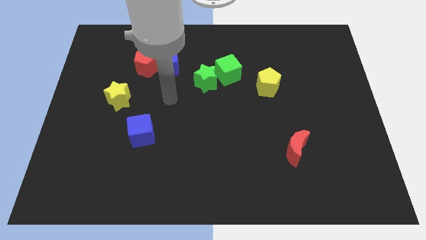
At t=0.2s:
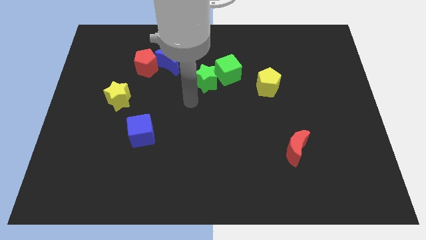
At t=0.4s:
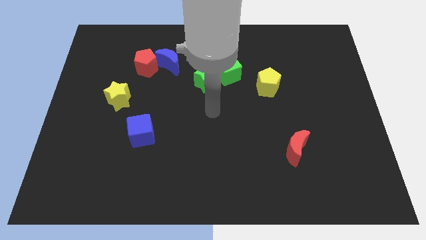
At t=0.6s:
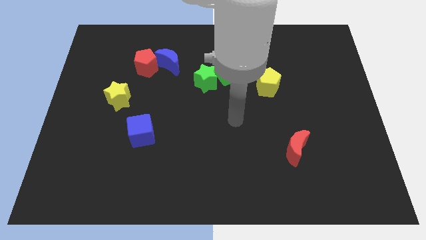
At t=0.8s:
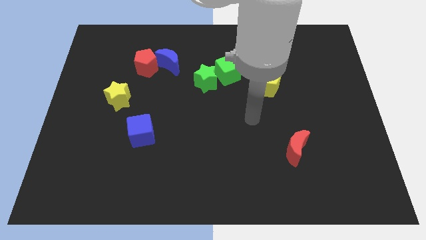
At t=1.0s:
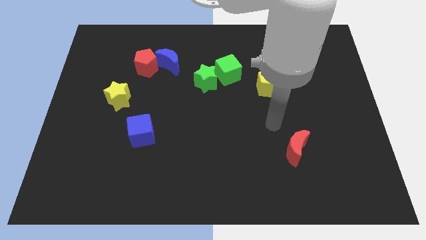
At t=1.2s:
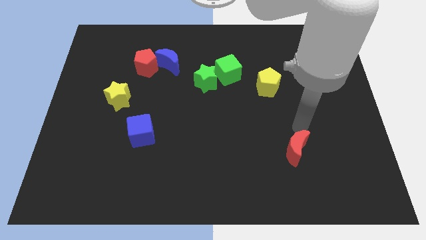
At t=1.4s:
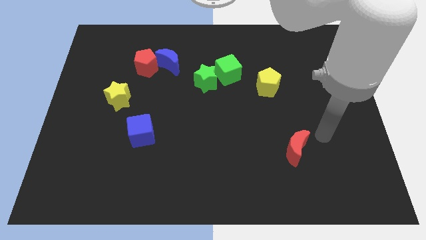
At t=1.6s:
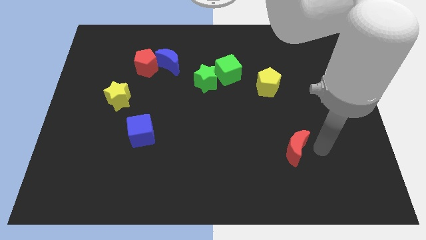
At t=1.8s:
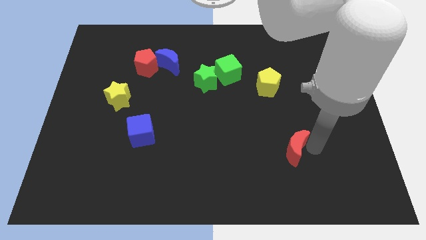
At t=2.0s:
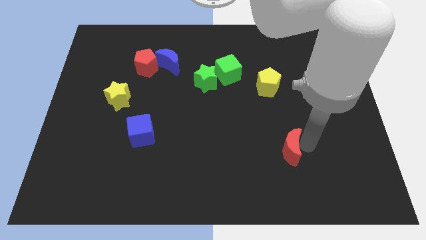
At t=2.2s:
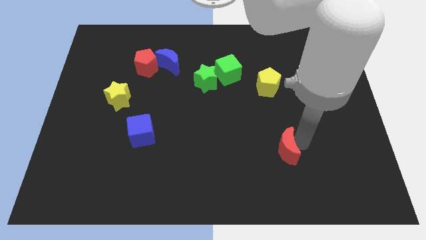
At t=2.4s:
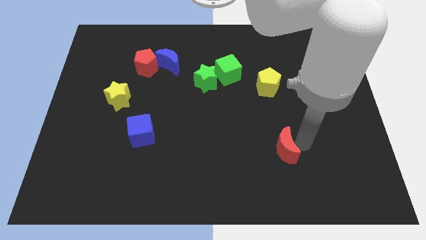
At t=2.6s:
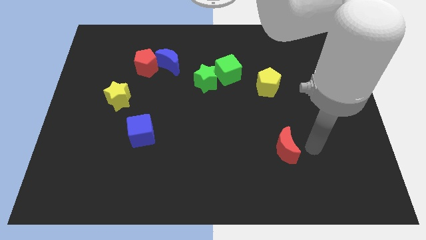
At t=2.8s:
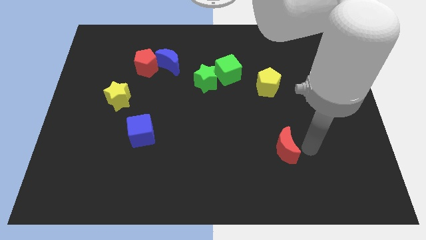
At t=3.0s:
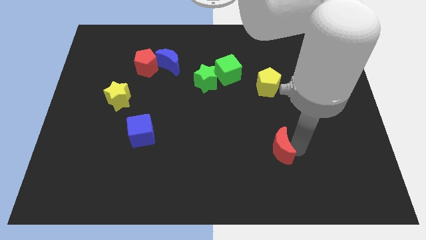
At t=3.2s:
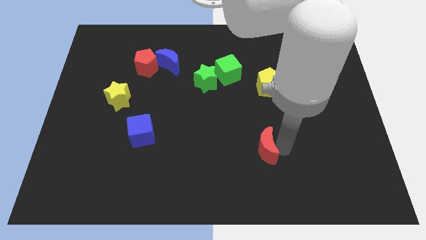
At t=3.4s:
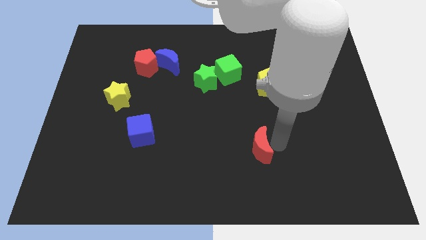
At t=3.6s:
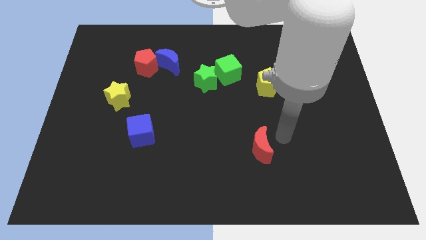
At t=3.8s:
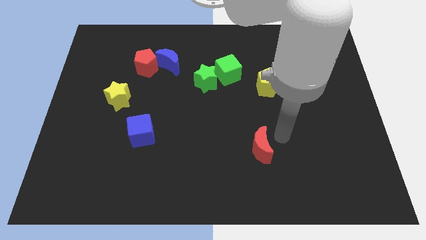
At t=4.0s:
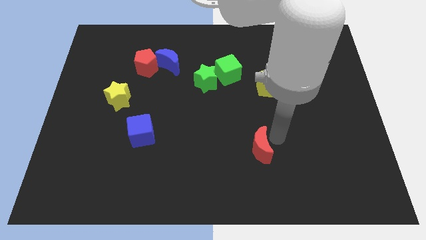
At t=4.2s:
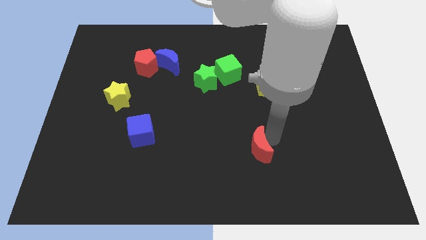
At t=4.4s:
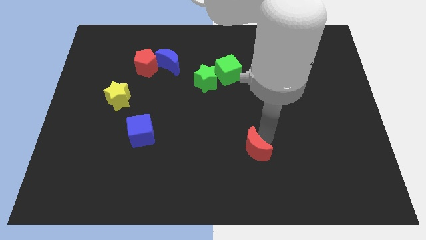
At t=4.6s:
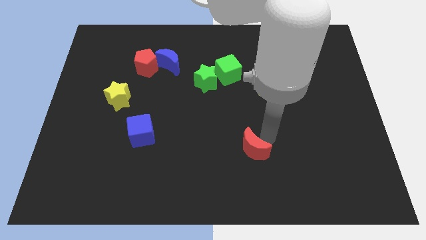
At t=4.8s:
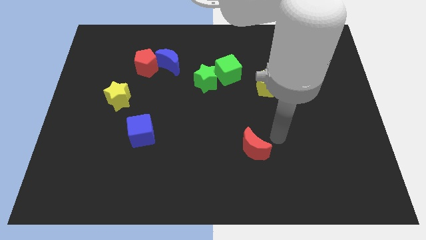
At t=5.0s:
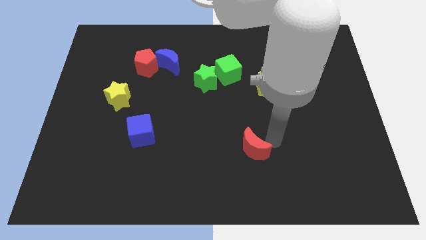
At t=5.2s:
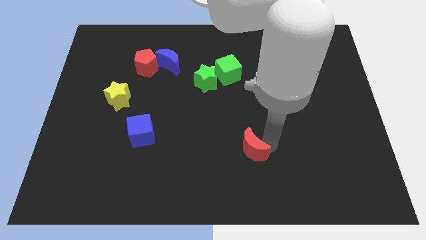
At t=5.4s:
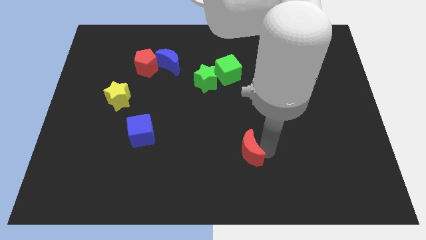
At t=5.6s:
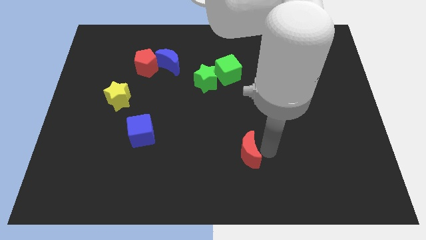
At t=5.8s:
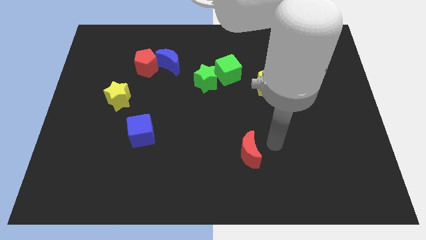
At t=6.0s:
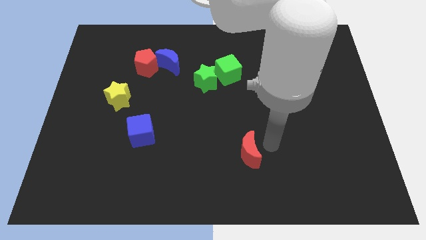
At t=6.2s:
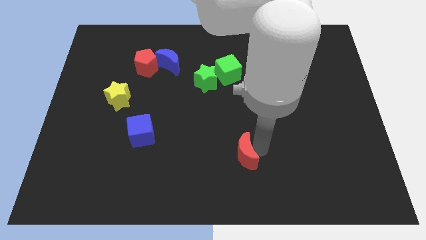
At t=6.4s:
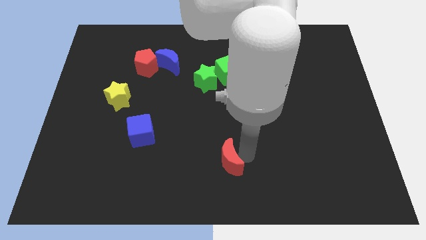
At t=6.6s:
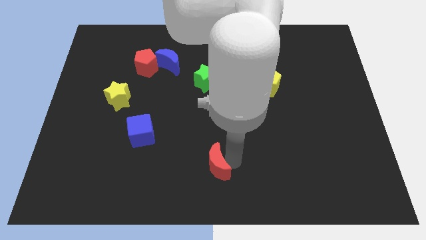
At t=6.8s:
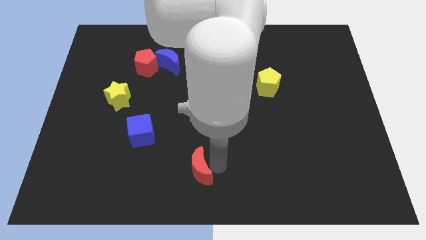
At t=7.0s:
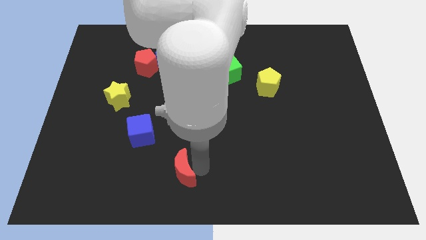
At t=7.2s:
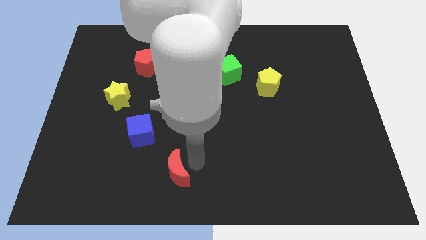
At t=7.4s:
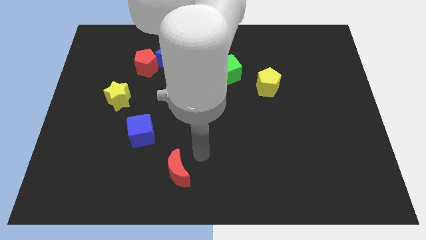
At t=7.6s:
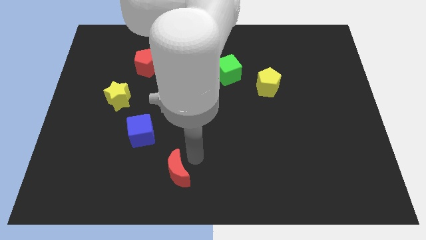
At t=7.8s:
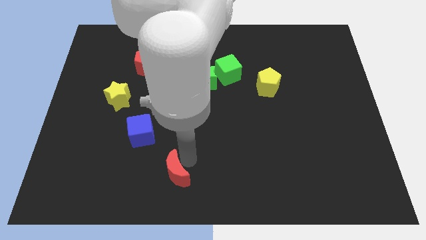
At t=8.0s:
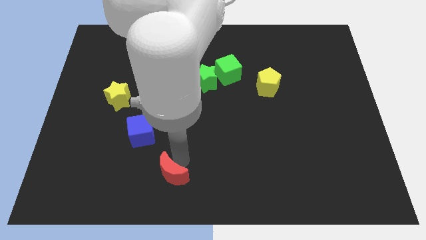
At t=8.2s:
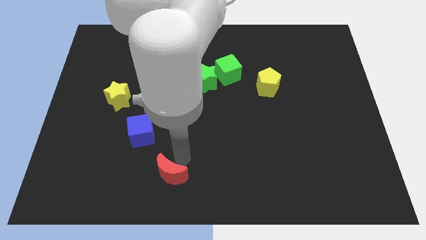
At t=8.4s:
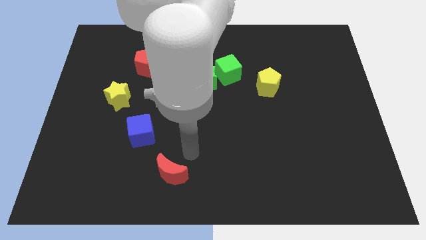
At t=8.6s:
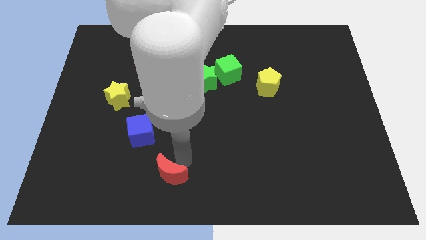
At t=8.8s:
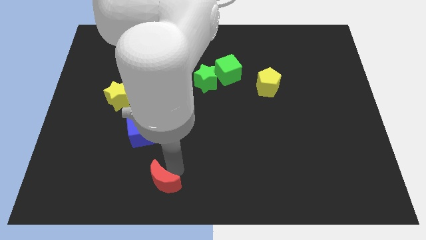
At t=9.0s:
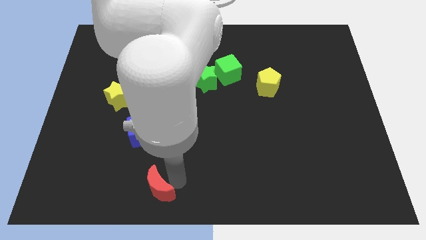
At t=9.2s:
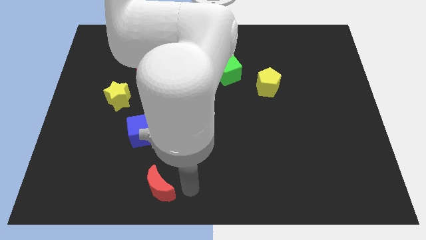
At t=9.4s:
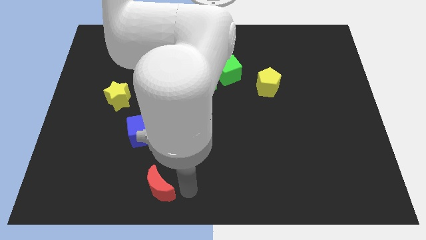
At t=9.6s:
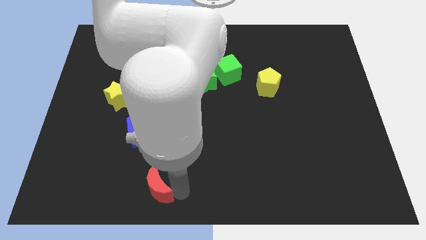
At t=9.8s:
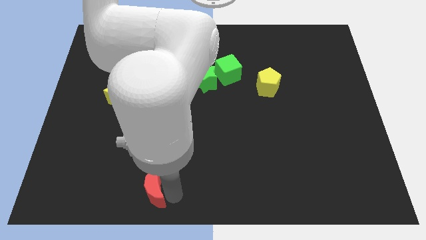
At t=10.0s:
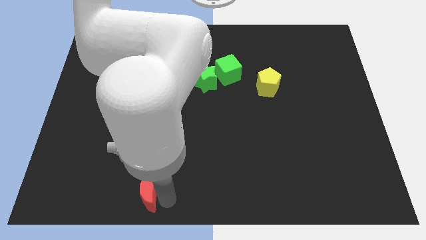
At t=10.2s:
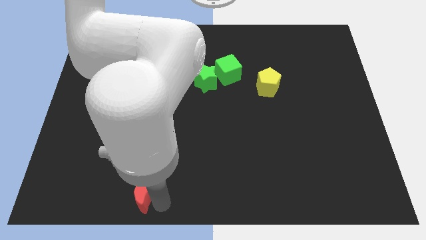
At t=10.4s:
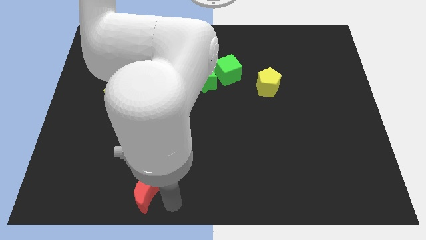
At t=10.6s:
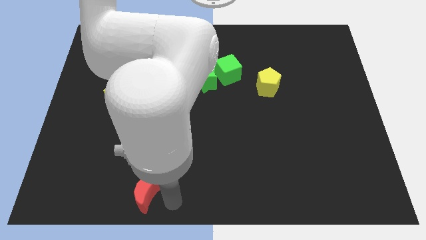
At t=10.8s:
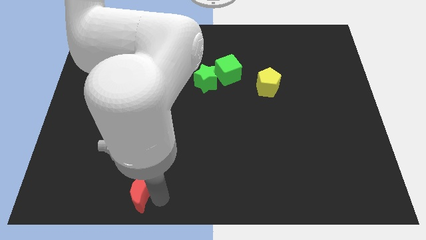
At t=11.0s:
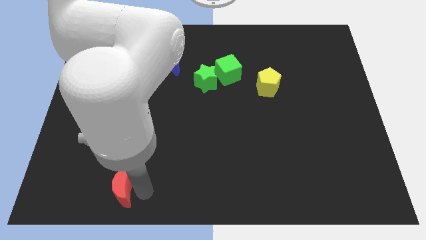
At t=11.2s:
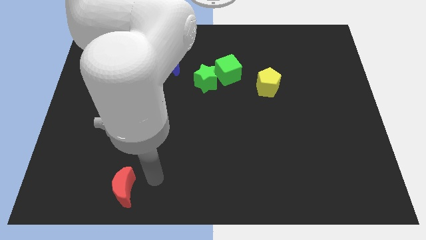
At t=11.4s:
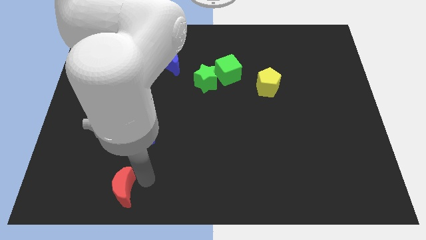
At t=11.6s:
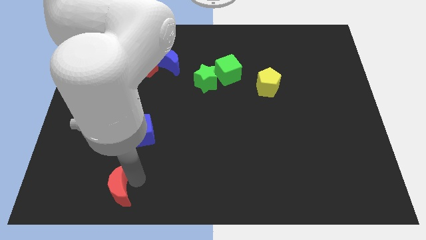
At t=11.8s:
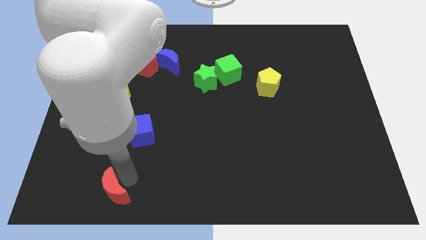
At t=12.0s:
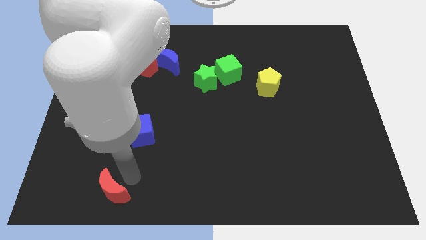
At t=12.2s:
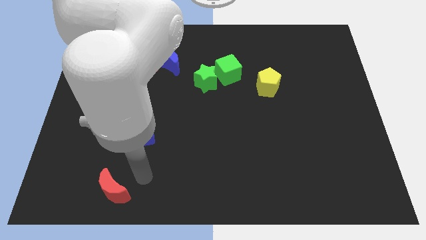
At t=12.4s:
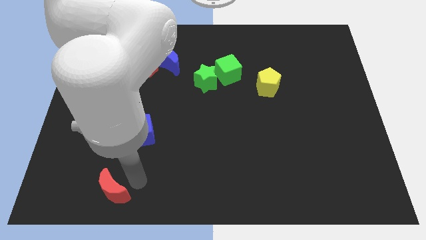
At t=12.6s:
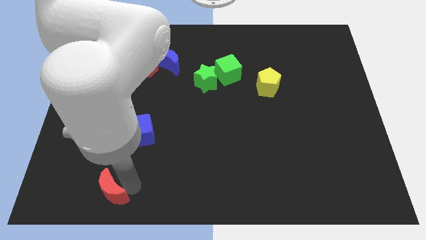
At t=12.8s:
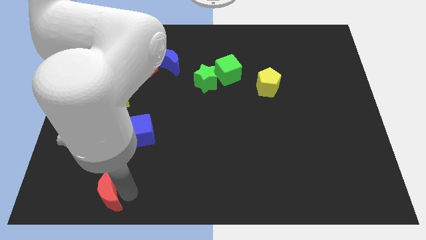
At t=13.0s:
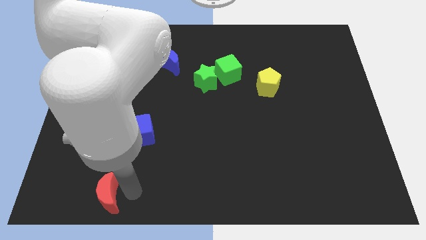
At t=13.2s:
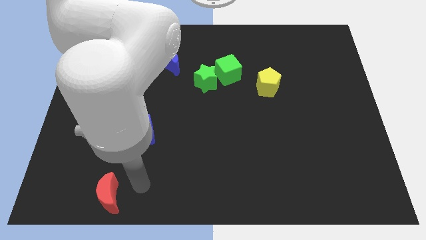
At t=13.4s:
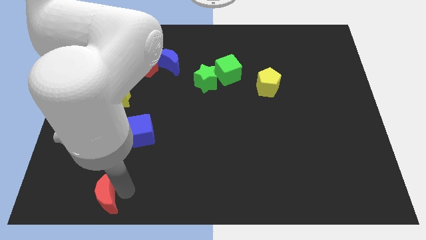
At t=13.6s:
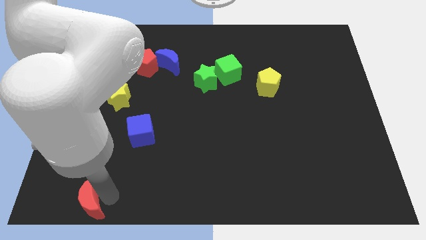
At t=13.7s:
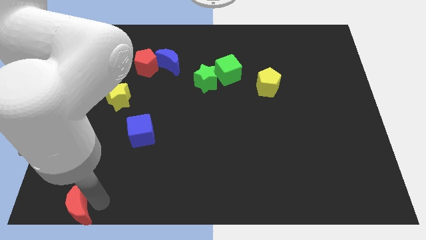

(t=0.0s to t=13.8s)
put the red moon to the lower left corner

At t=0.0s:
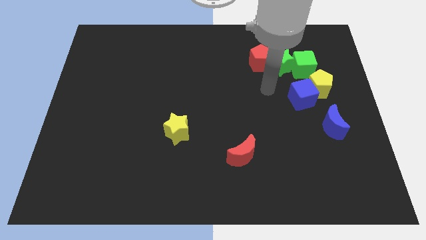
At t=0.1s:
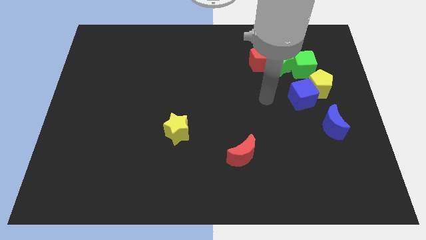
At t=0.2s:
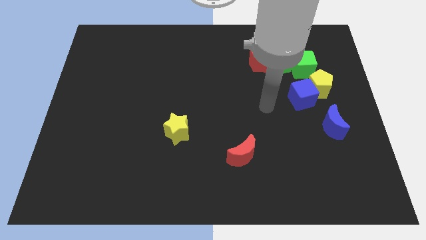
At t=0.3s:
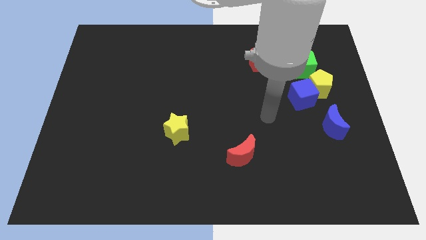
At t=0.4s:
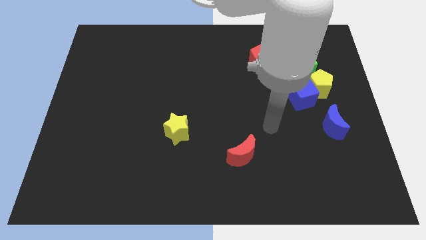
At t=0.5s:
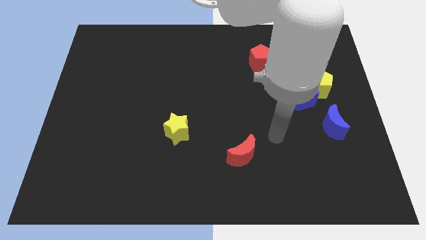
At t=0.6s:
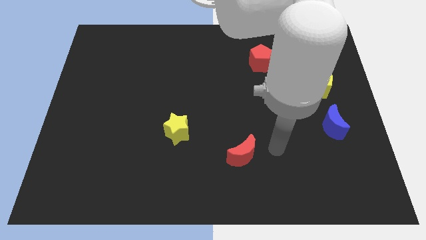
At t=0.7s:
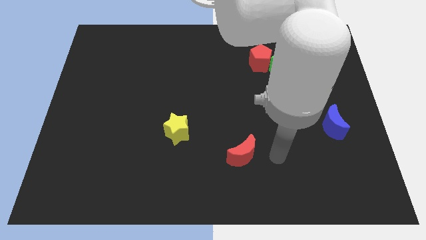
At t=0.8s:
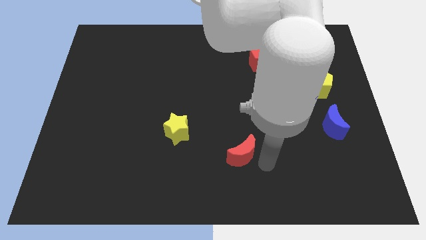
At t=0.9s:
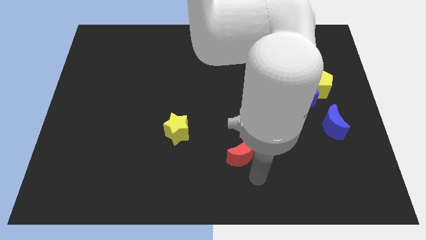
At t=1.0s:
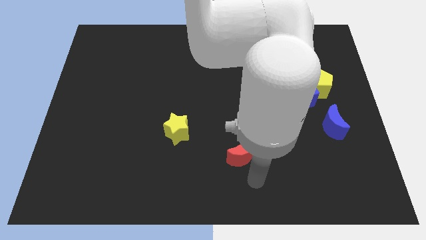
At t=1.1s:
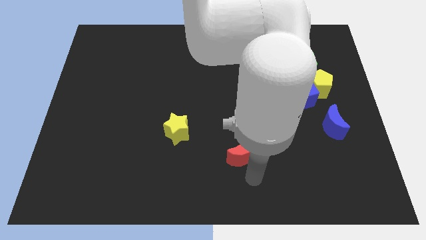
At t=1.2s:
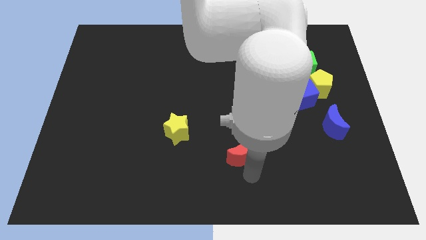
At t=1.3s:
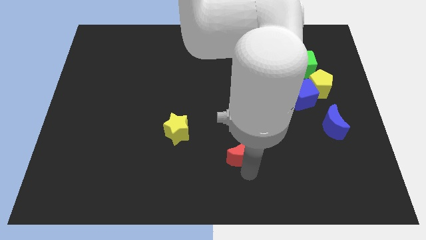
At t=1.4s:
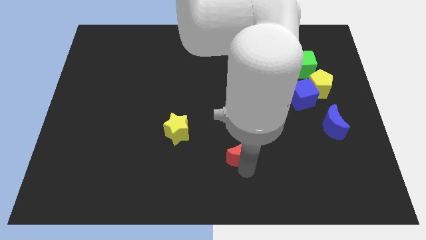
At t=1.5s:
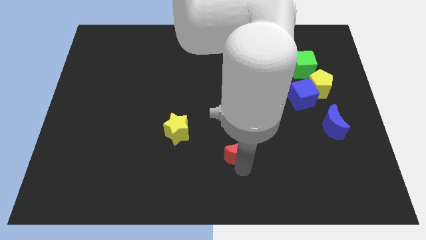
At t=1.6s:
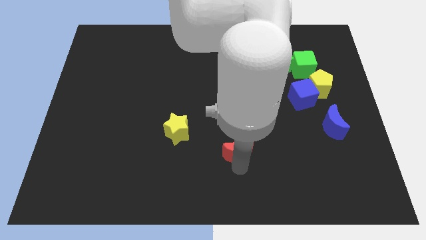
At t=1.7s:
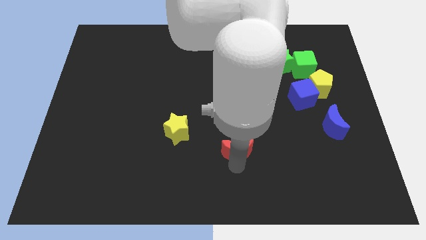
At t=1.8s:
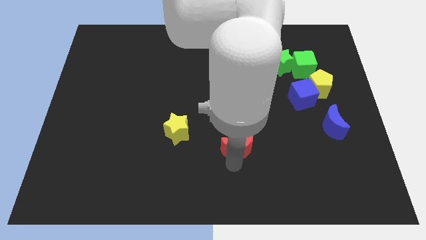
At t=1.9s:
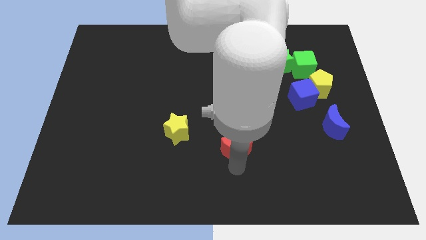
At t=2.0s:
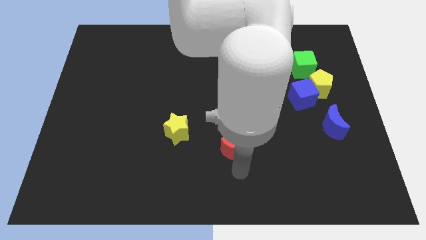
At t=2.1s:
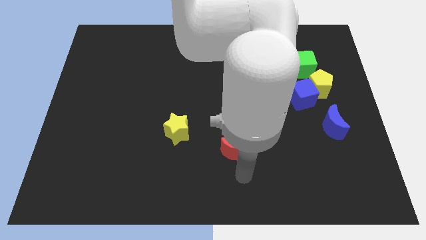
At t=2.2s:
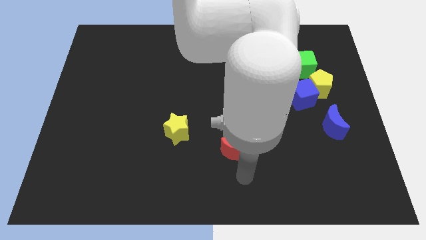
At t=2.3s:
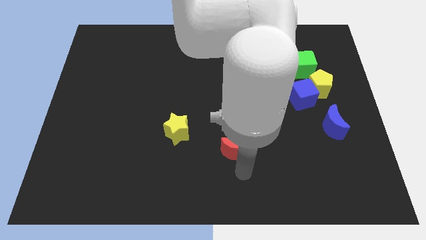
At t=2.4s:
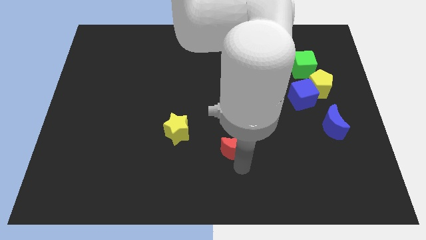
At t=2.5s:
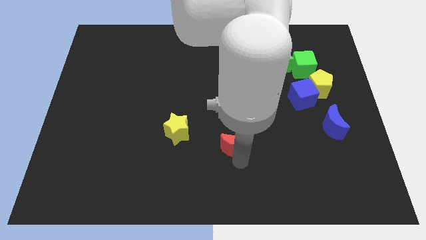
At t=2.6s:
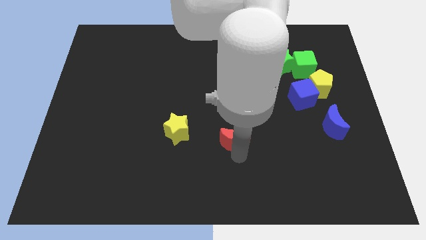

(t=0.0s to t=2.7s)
put the red moon to the middle of the board
